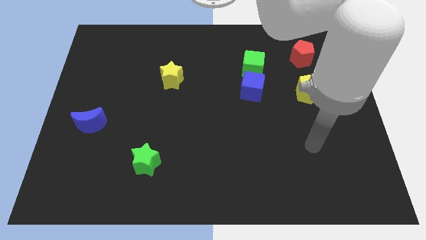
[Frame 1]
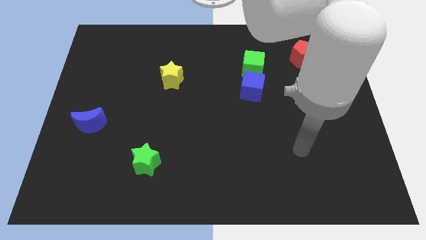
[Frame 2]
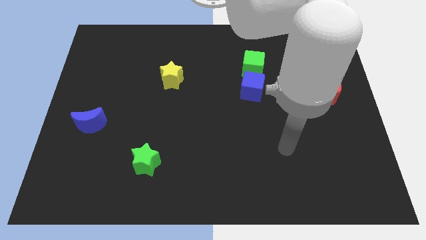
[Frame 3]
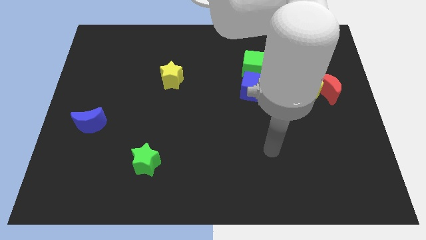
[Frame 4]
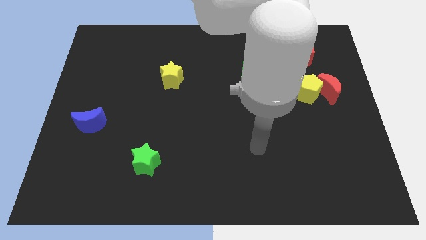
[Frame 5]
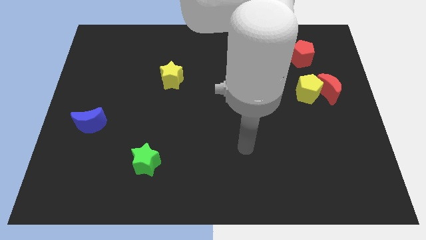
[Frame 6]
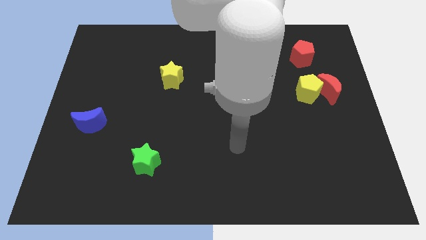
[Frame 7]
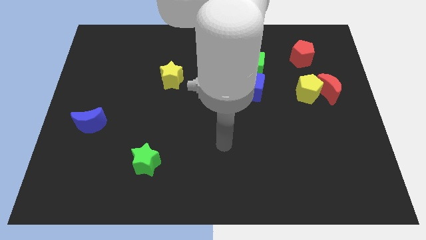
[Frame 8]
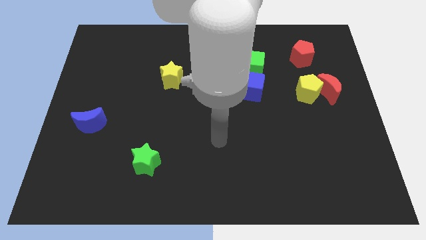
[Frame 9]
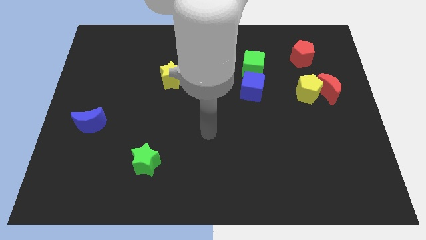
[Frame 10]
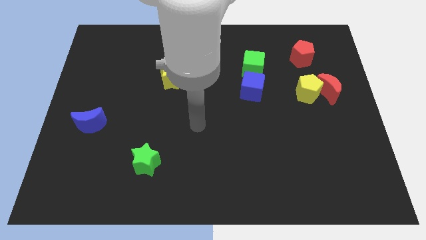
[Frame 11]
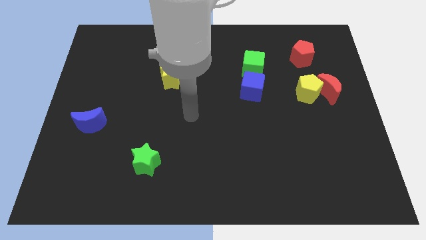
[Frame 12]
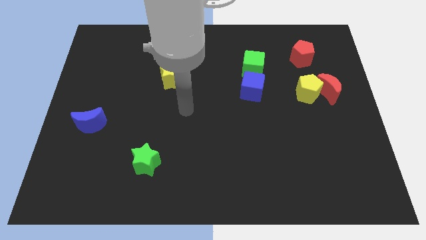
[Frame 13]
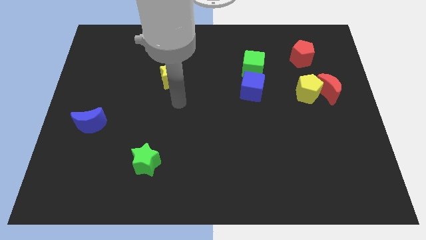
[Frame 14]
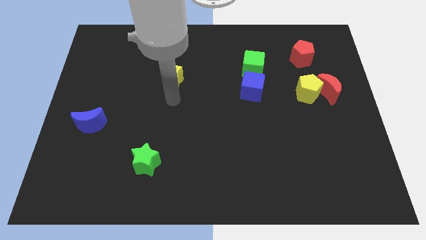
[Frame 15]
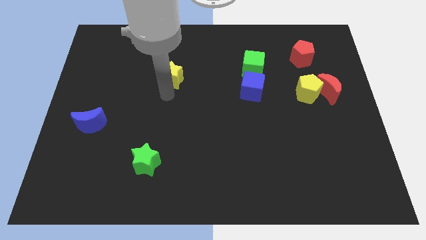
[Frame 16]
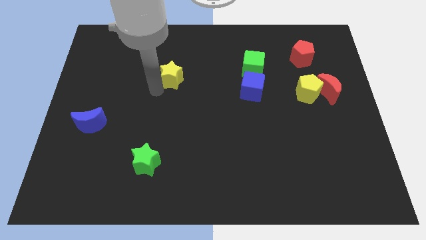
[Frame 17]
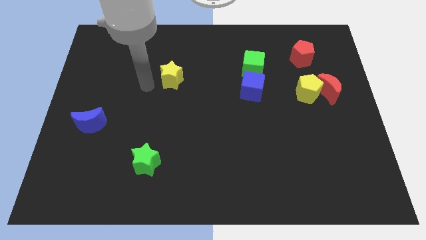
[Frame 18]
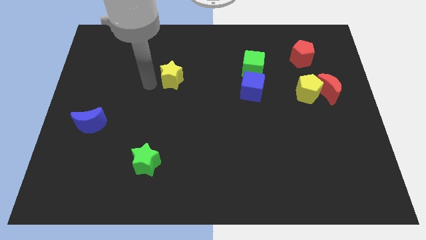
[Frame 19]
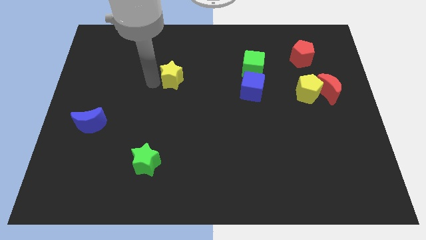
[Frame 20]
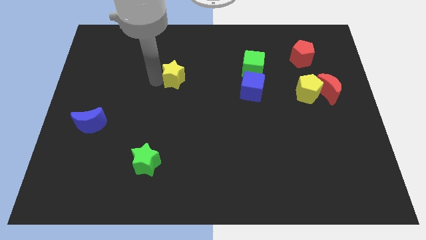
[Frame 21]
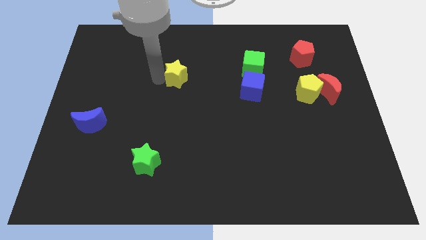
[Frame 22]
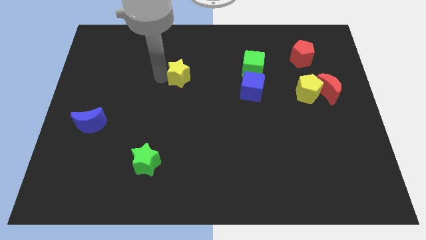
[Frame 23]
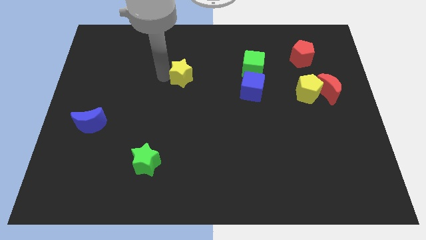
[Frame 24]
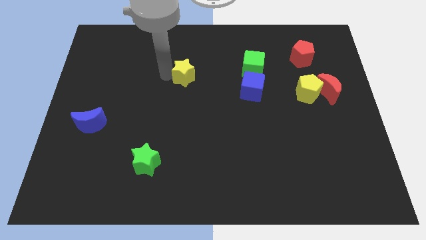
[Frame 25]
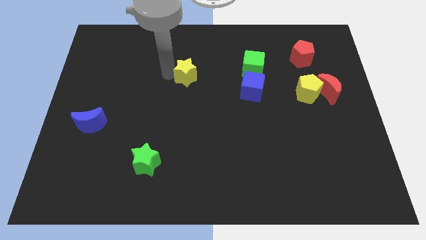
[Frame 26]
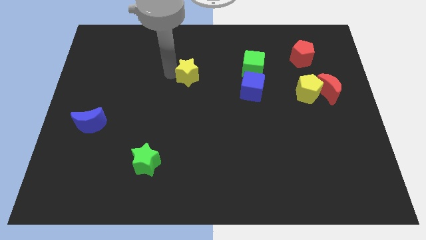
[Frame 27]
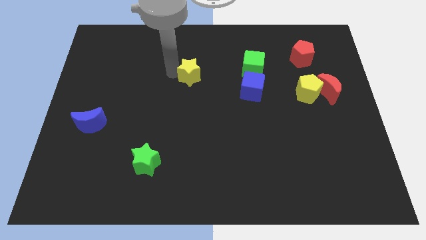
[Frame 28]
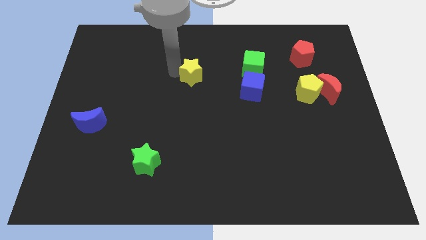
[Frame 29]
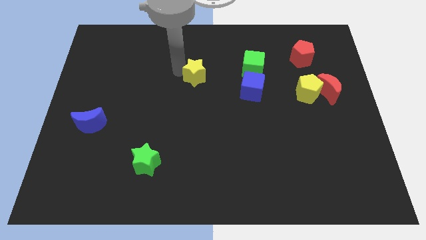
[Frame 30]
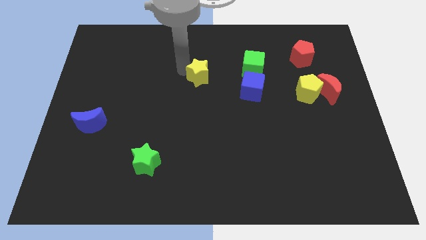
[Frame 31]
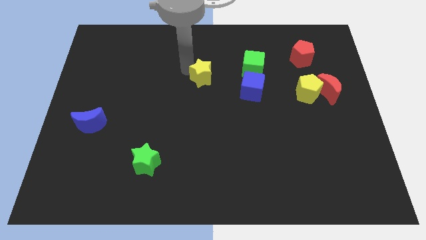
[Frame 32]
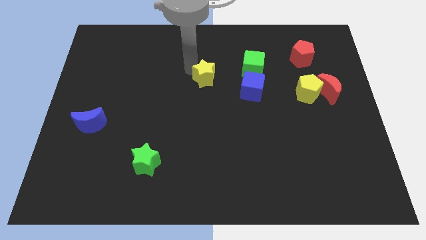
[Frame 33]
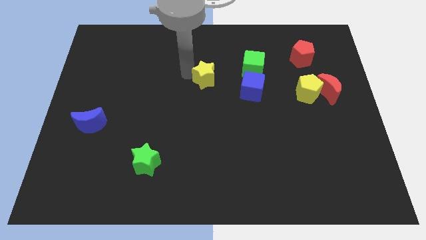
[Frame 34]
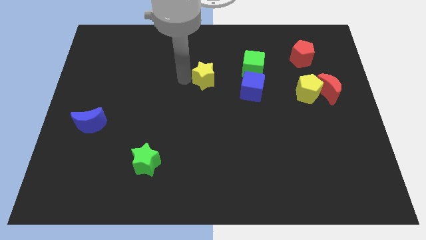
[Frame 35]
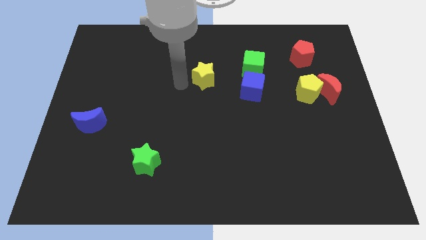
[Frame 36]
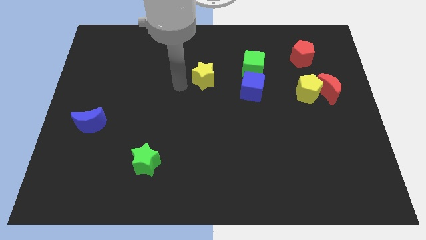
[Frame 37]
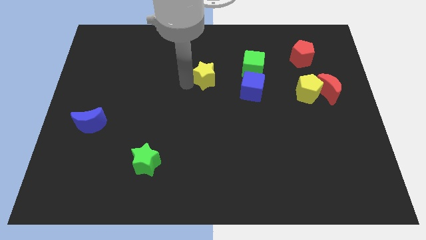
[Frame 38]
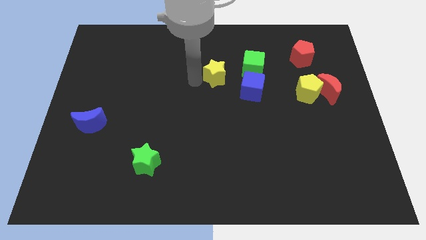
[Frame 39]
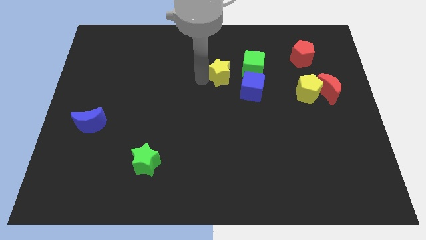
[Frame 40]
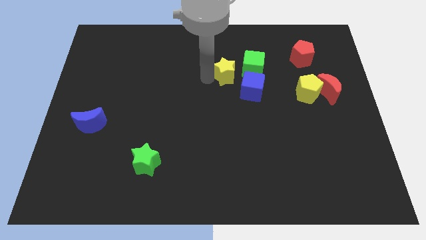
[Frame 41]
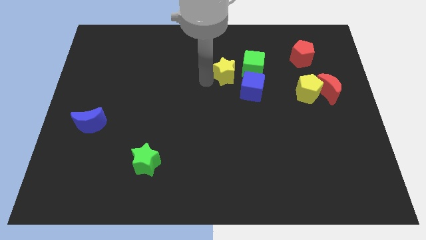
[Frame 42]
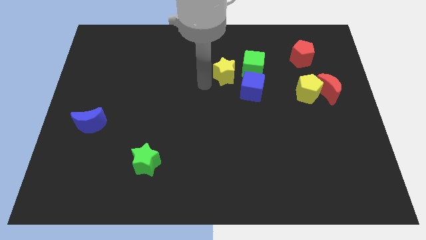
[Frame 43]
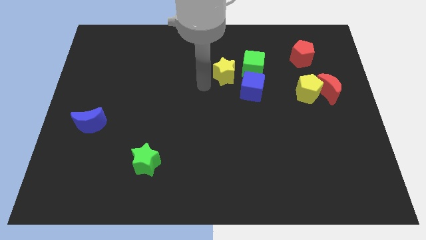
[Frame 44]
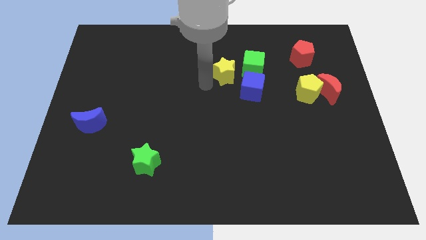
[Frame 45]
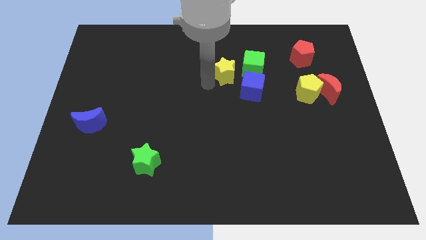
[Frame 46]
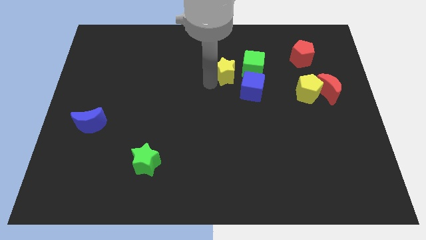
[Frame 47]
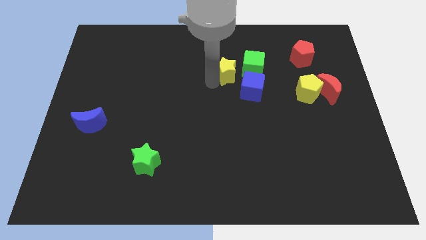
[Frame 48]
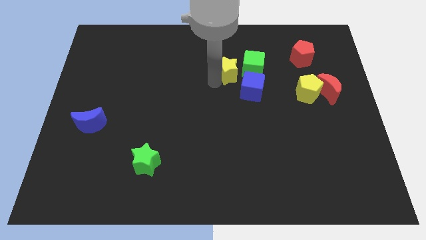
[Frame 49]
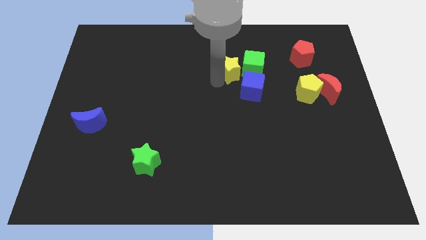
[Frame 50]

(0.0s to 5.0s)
push the yellow star towards the green cube

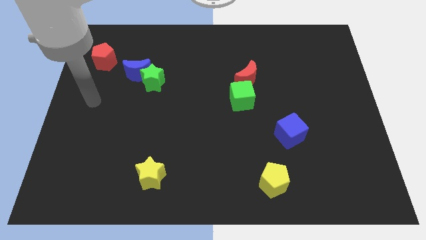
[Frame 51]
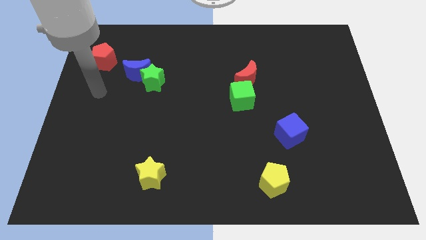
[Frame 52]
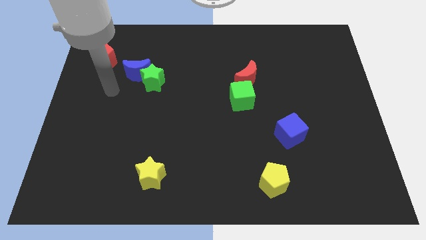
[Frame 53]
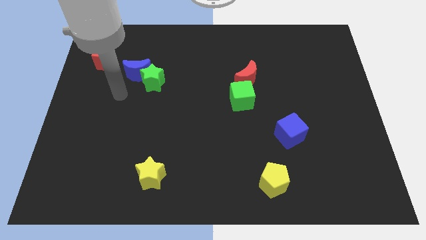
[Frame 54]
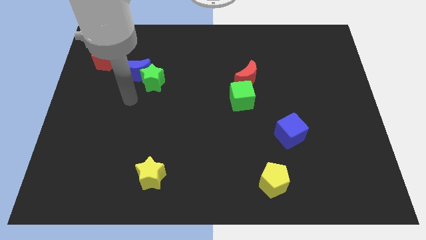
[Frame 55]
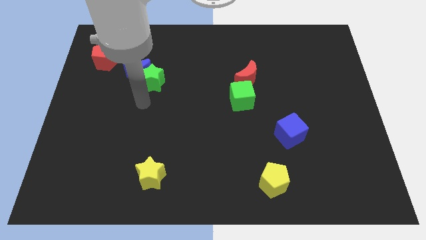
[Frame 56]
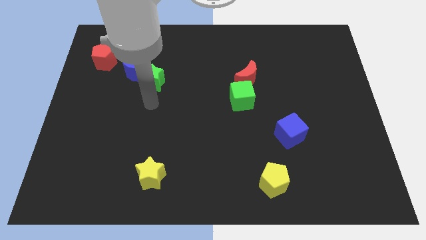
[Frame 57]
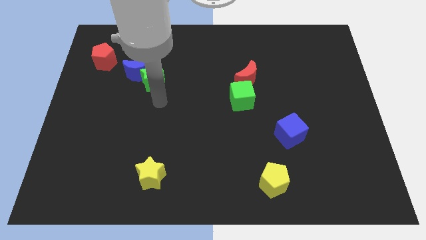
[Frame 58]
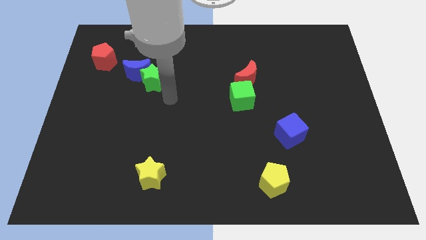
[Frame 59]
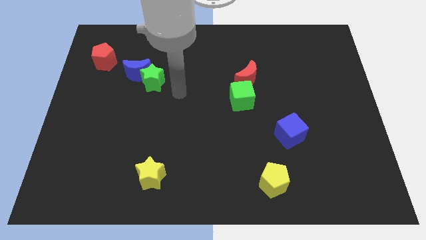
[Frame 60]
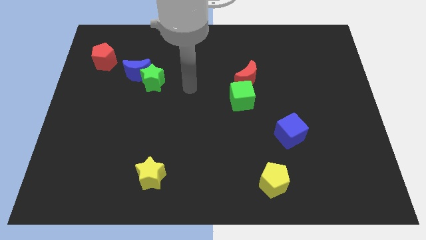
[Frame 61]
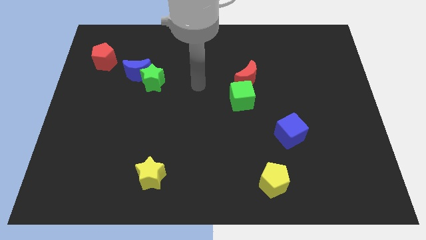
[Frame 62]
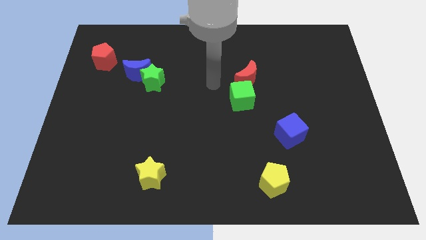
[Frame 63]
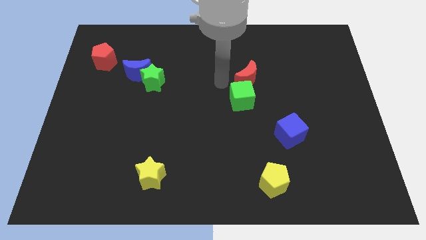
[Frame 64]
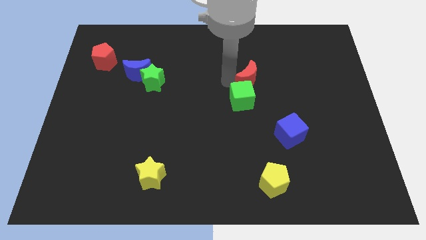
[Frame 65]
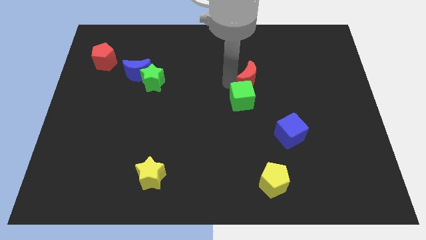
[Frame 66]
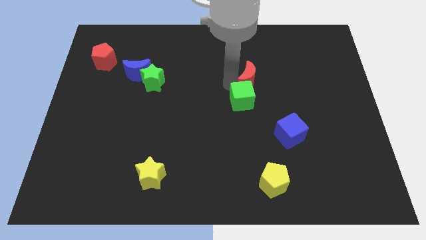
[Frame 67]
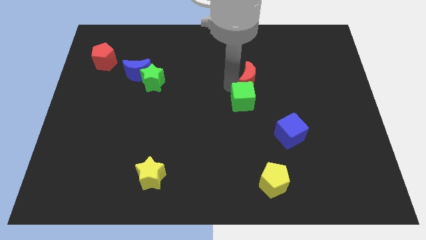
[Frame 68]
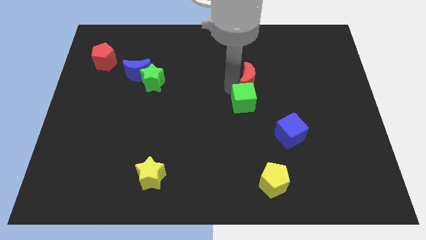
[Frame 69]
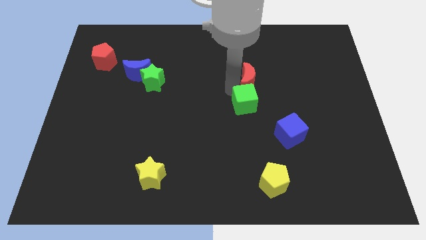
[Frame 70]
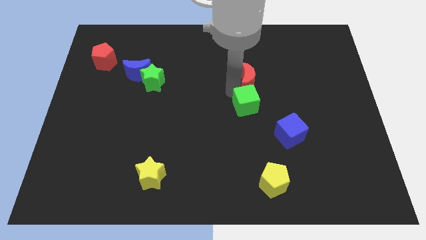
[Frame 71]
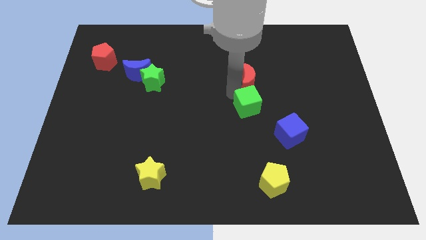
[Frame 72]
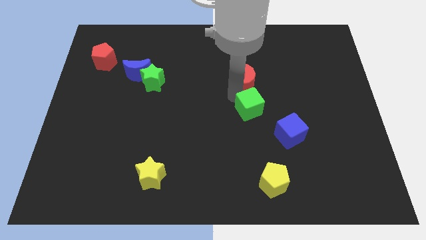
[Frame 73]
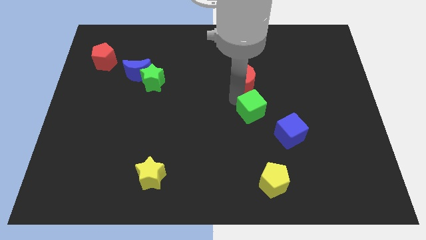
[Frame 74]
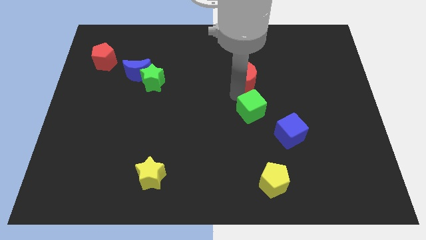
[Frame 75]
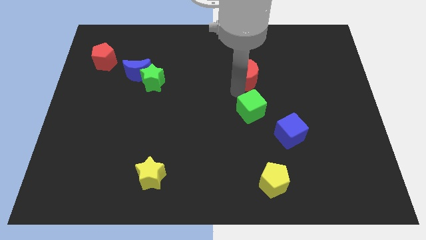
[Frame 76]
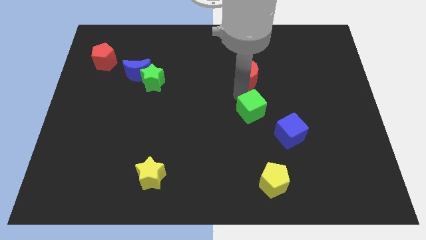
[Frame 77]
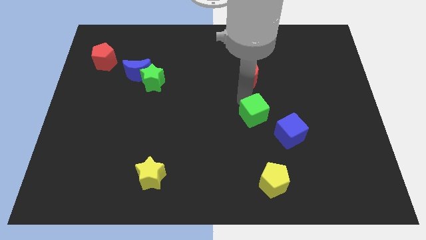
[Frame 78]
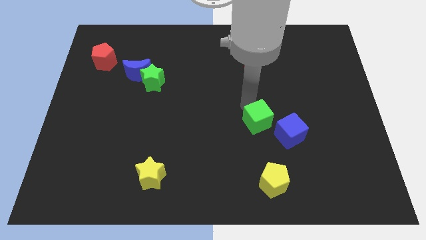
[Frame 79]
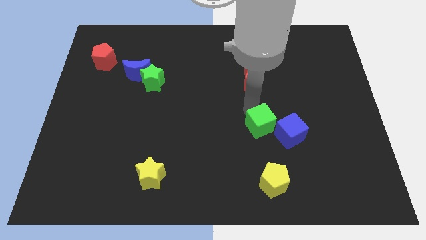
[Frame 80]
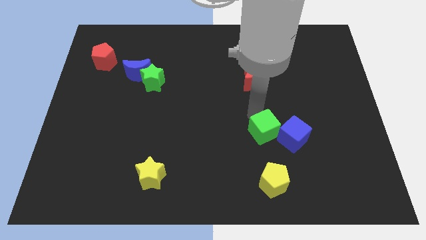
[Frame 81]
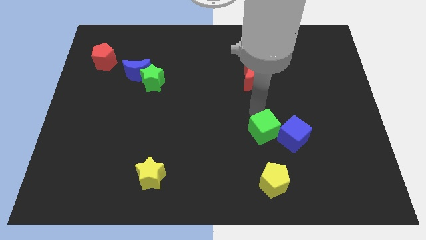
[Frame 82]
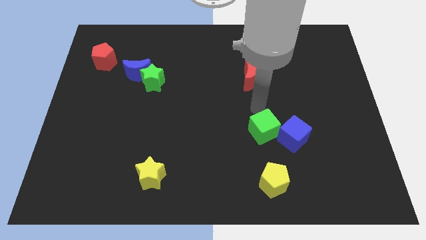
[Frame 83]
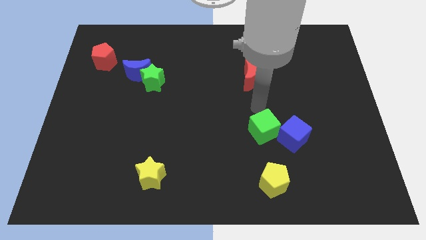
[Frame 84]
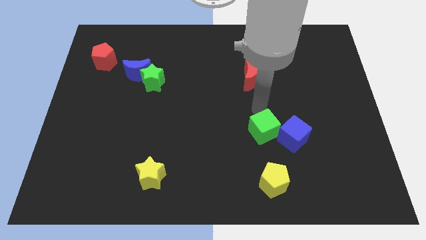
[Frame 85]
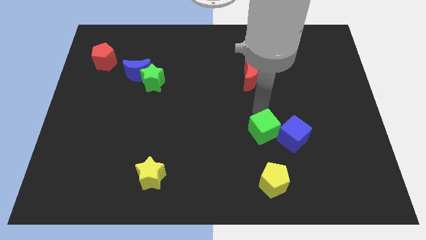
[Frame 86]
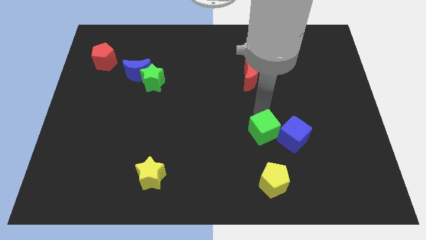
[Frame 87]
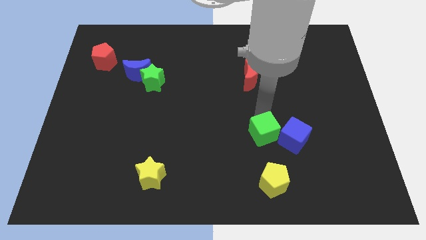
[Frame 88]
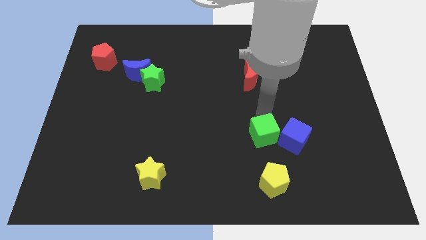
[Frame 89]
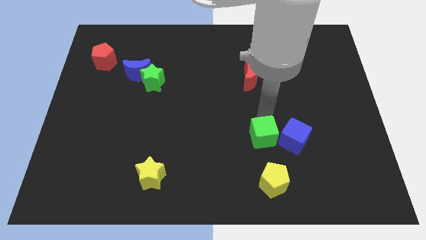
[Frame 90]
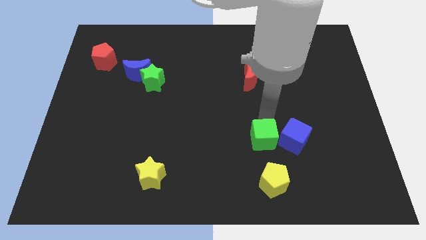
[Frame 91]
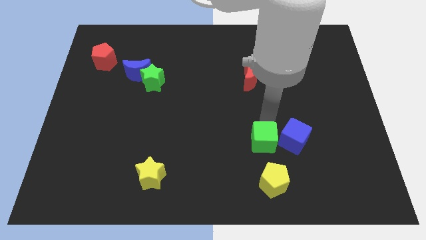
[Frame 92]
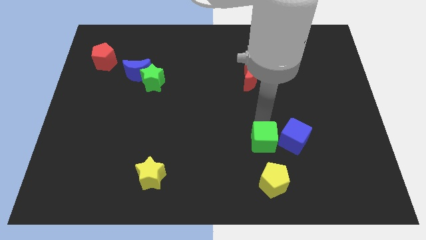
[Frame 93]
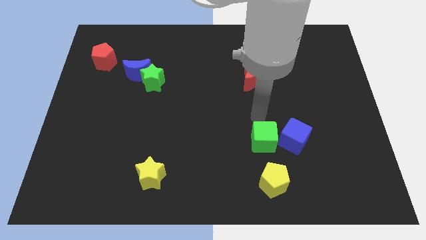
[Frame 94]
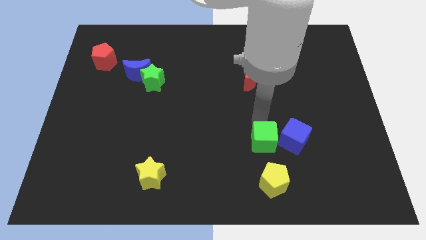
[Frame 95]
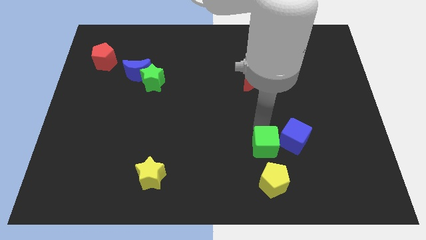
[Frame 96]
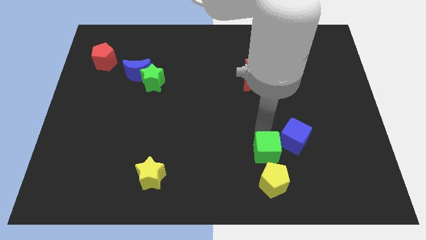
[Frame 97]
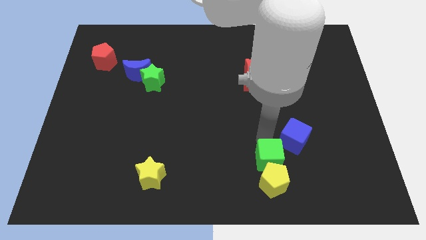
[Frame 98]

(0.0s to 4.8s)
slide the green cube close to the yellow pentagon
